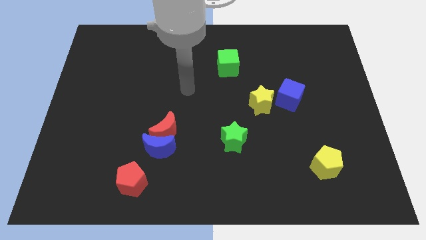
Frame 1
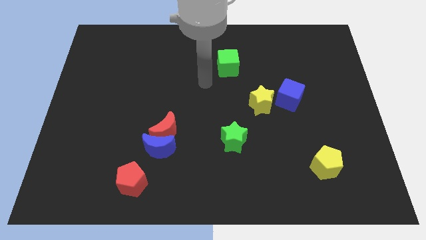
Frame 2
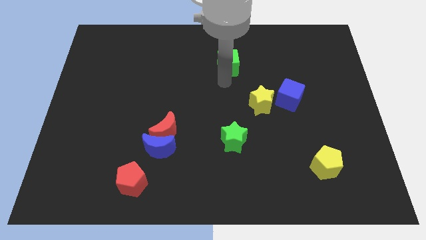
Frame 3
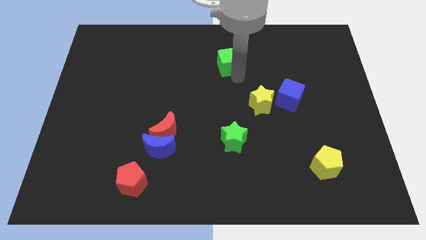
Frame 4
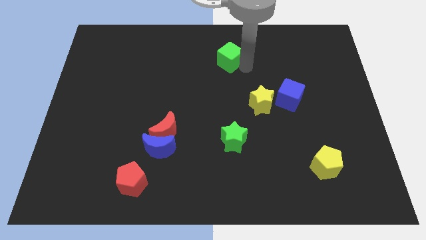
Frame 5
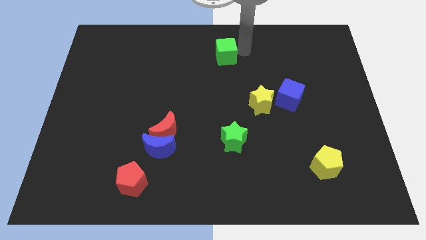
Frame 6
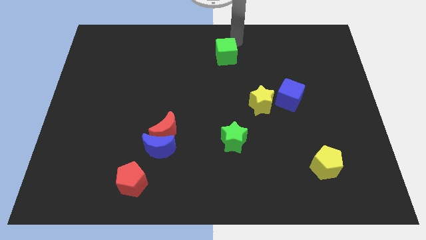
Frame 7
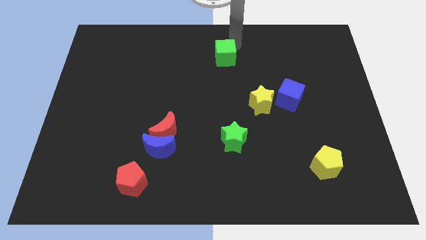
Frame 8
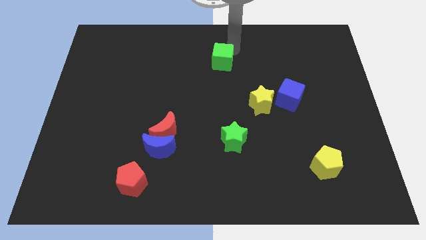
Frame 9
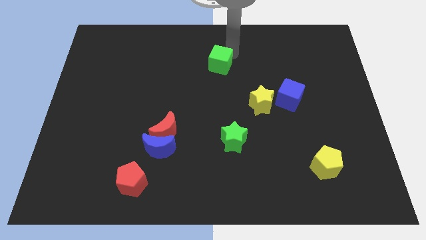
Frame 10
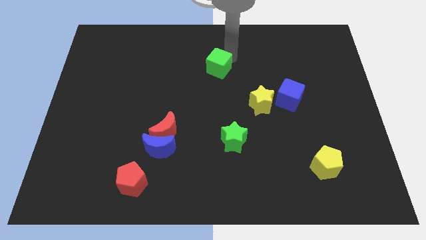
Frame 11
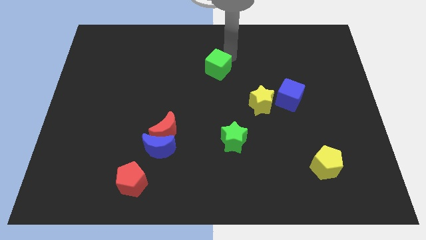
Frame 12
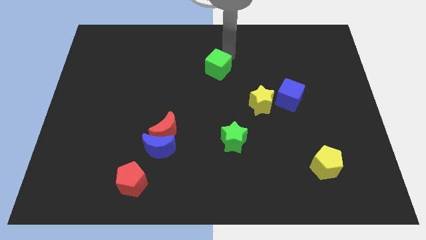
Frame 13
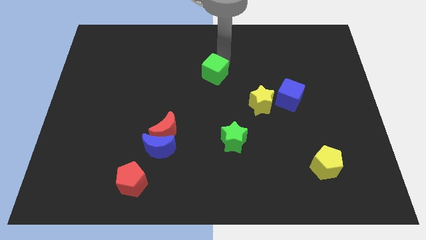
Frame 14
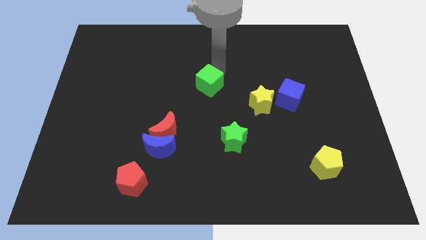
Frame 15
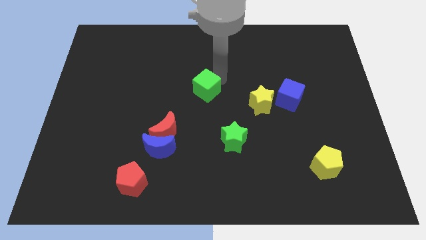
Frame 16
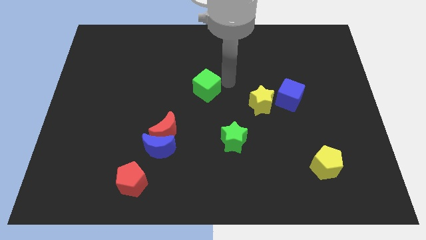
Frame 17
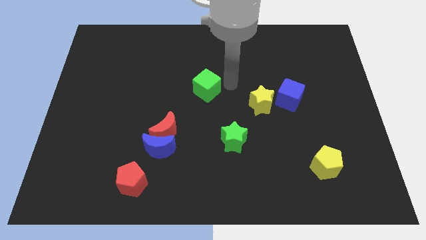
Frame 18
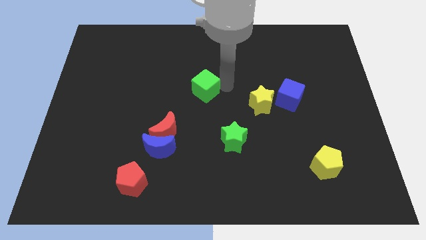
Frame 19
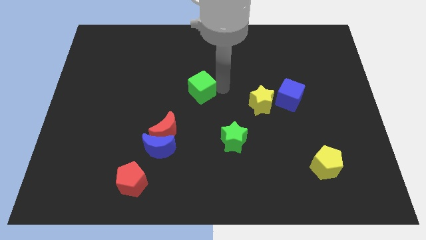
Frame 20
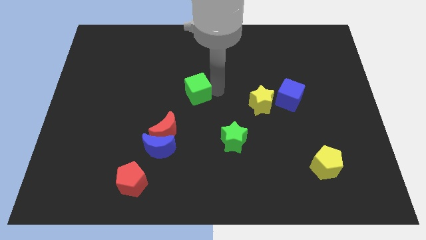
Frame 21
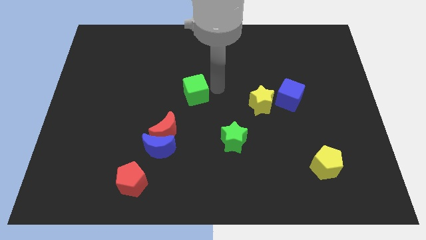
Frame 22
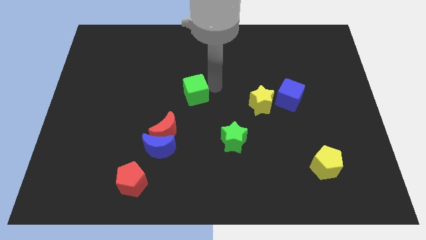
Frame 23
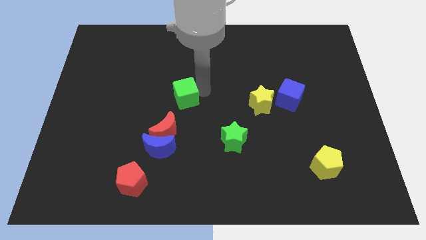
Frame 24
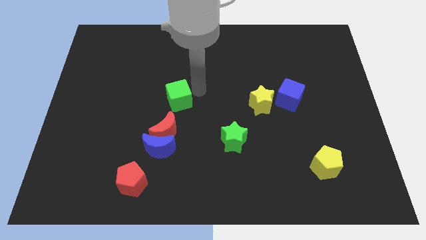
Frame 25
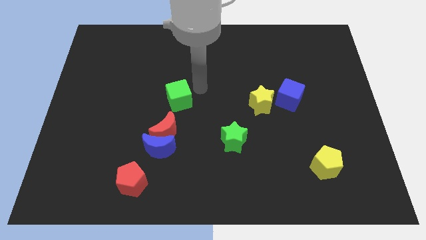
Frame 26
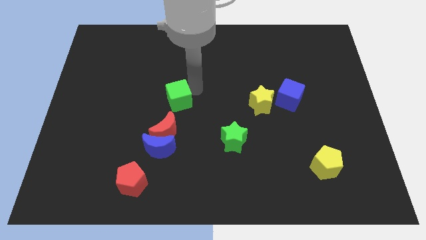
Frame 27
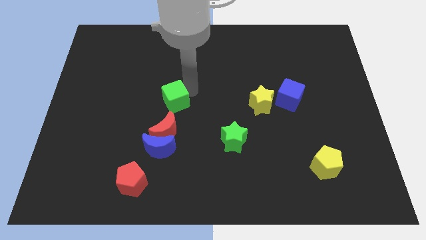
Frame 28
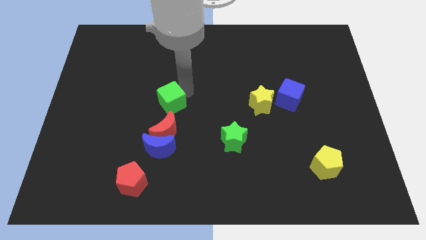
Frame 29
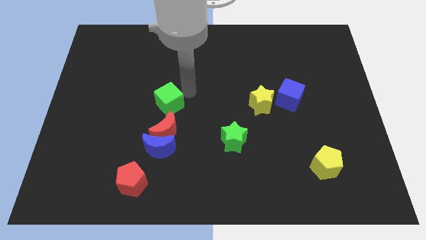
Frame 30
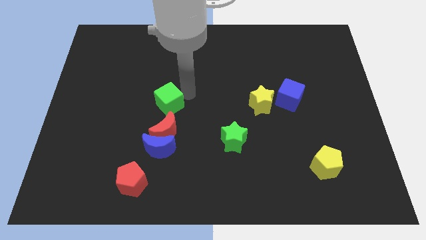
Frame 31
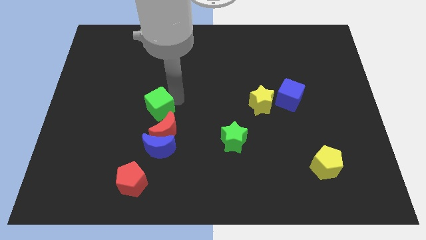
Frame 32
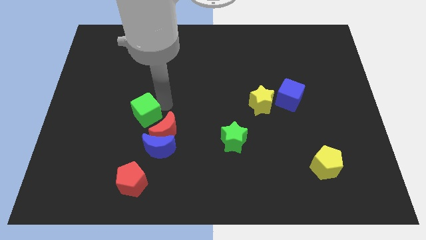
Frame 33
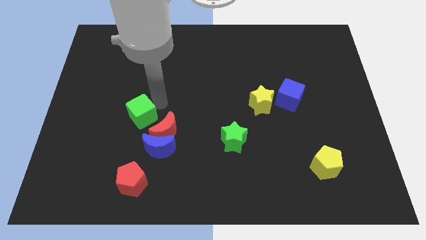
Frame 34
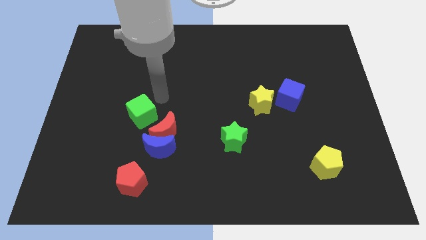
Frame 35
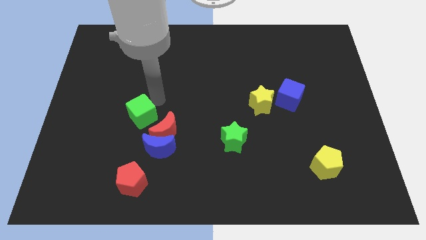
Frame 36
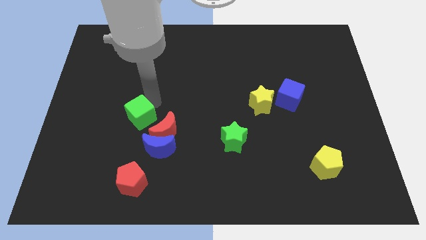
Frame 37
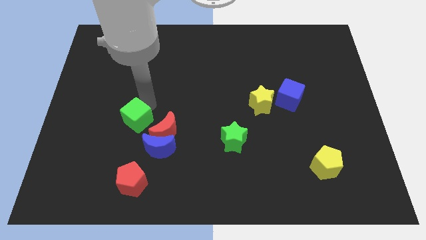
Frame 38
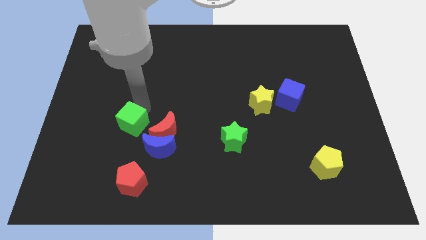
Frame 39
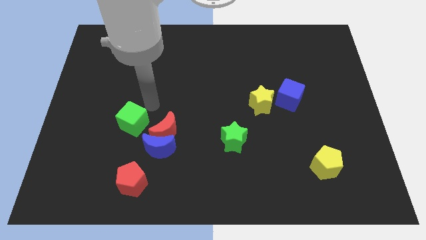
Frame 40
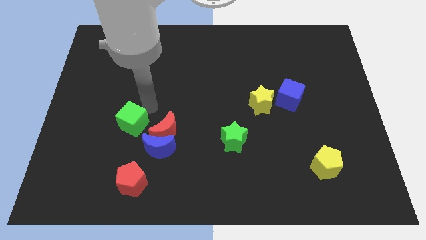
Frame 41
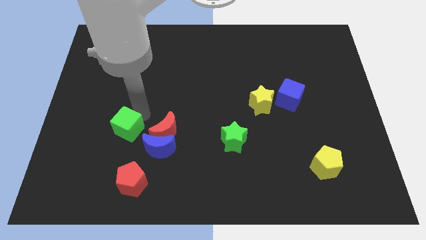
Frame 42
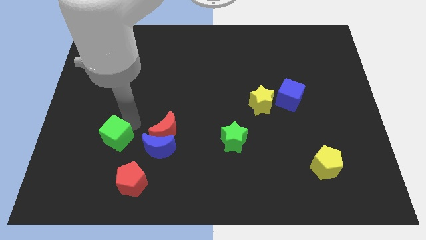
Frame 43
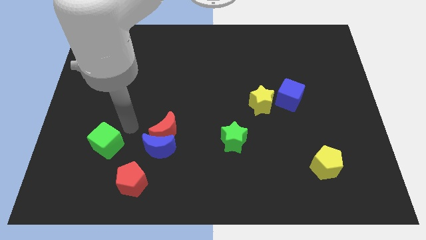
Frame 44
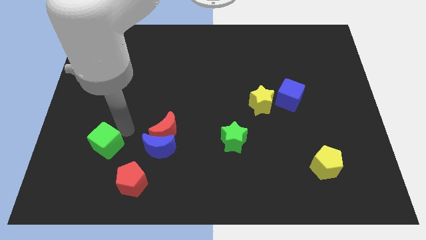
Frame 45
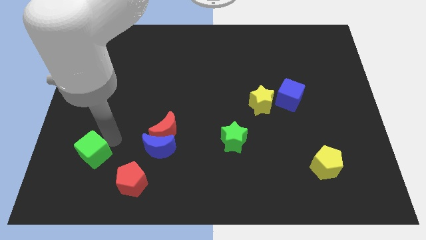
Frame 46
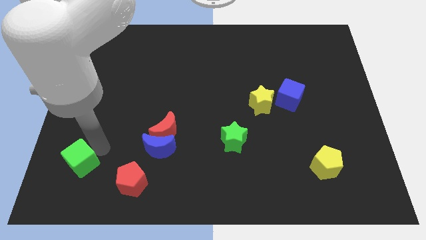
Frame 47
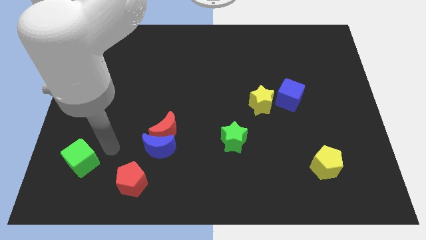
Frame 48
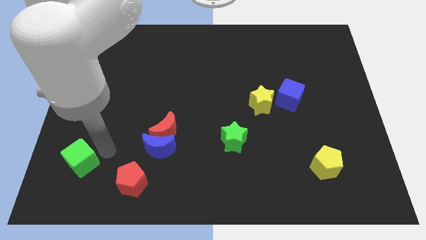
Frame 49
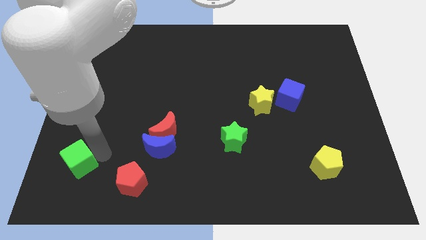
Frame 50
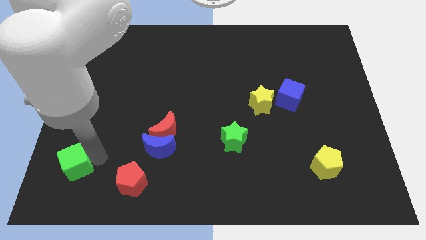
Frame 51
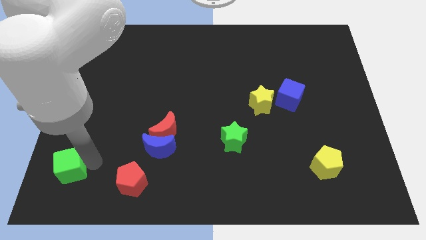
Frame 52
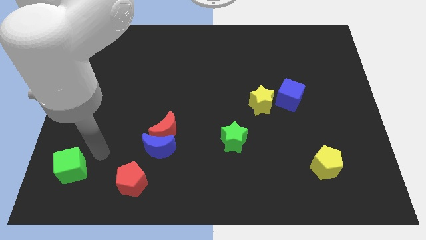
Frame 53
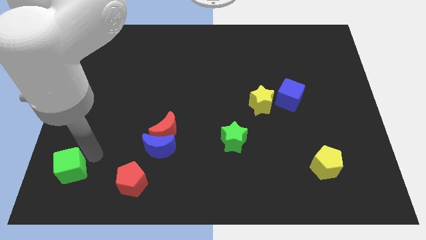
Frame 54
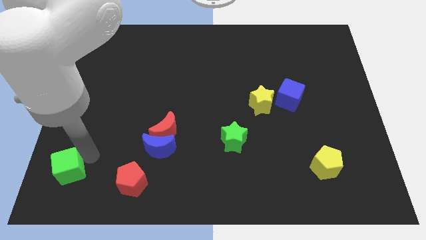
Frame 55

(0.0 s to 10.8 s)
move the green cube to the bottom left
